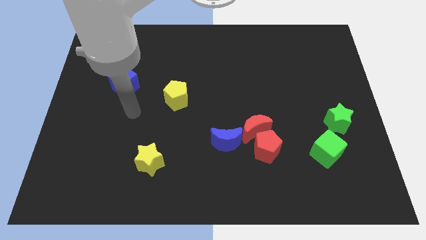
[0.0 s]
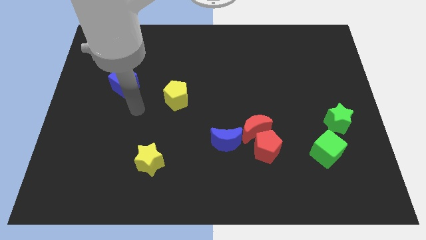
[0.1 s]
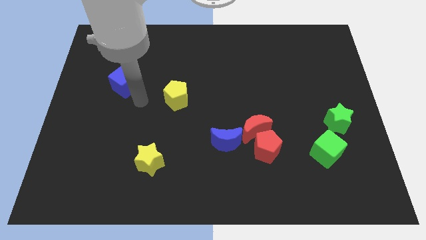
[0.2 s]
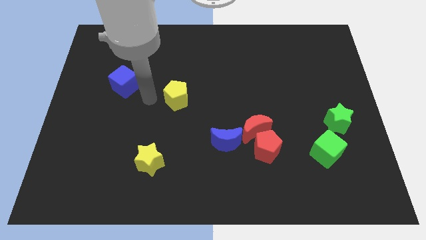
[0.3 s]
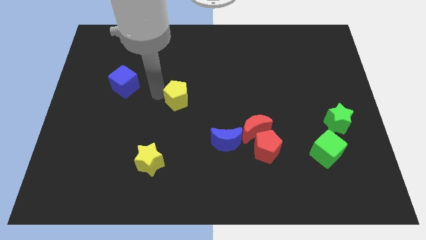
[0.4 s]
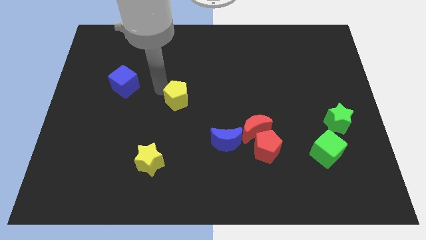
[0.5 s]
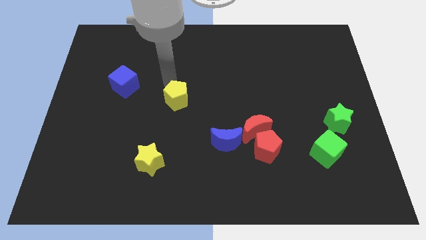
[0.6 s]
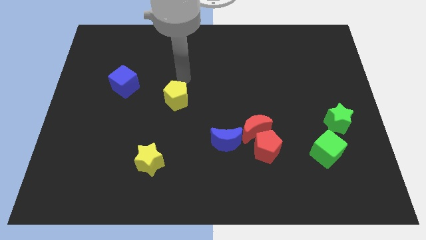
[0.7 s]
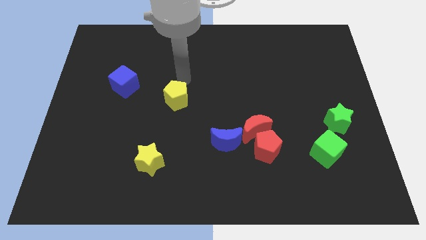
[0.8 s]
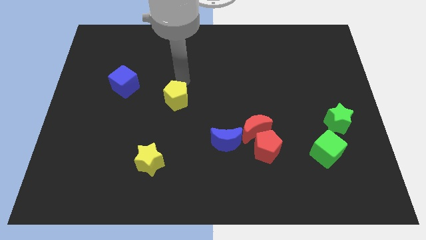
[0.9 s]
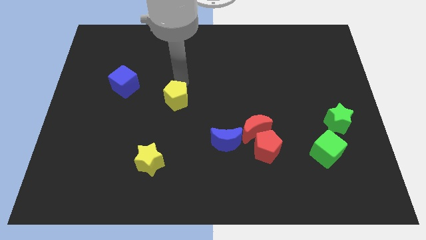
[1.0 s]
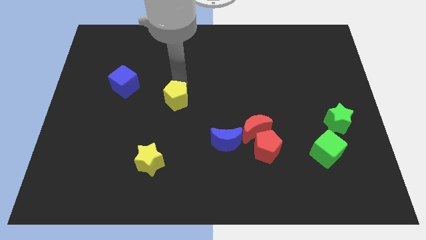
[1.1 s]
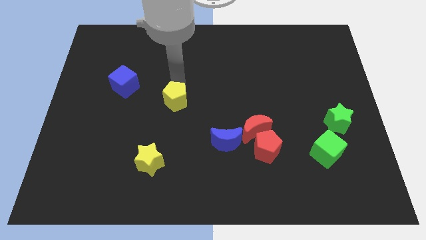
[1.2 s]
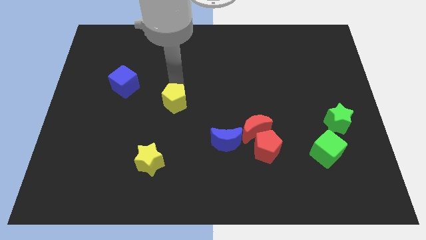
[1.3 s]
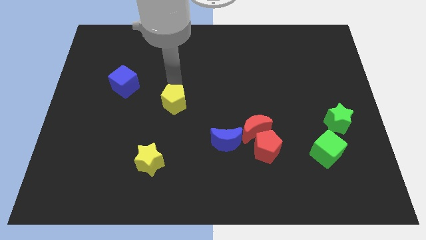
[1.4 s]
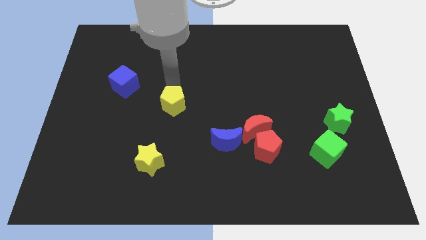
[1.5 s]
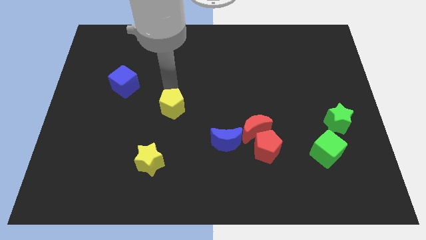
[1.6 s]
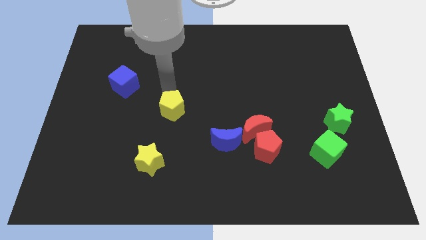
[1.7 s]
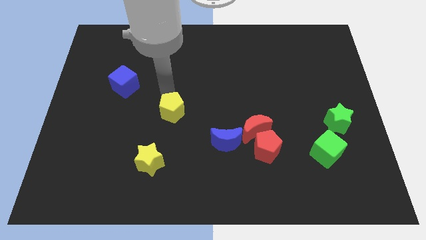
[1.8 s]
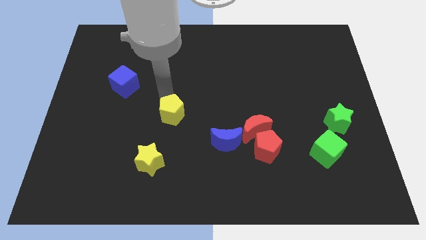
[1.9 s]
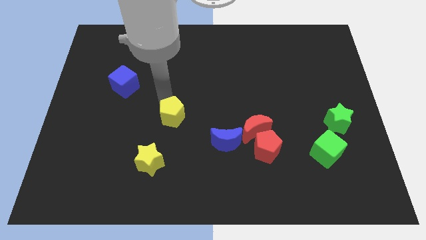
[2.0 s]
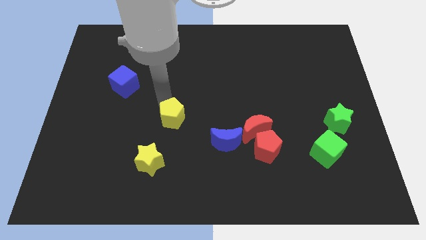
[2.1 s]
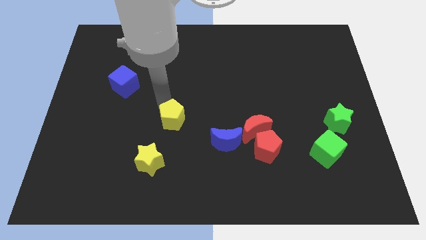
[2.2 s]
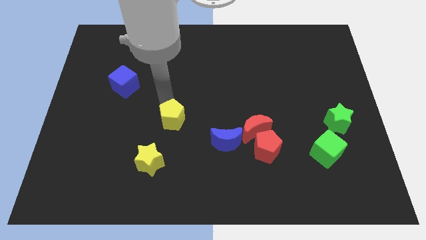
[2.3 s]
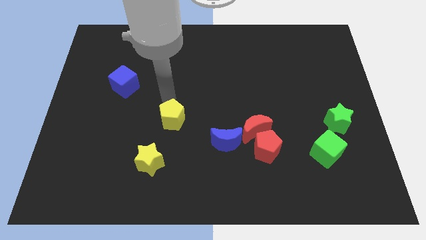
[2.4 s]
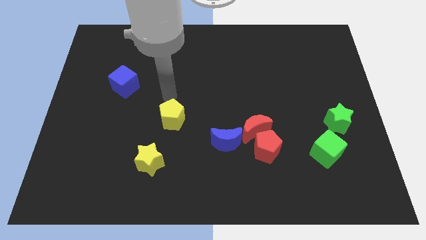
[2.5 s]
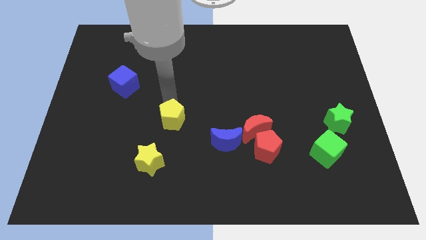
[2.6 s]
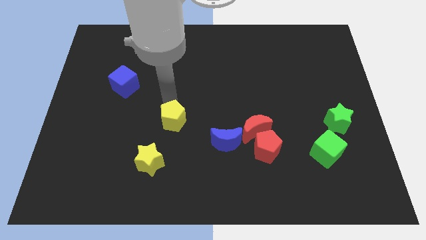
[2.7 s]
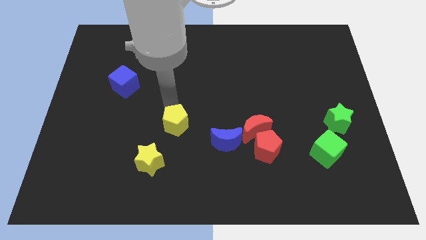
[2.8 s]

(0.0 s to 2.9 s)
move the yellow pentagon a bit downwards

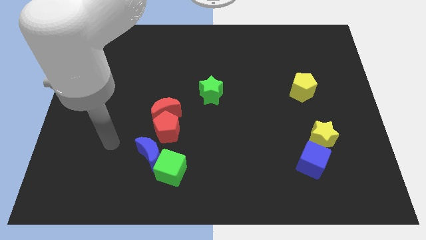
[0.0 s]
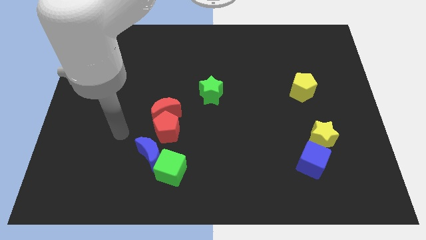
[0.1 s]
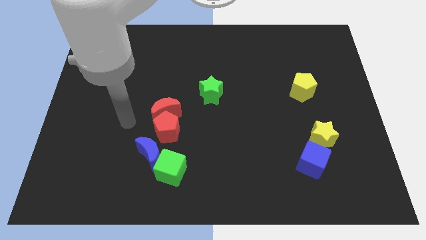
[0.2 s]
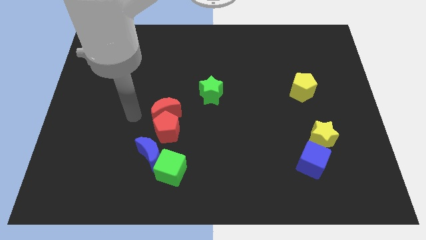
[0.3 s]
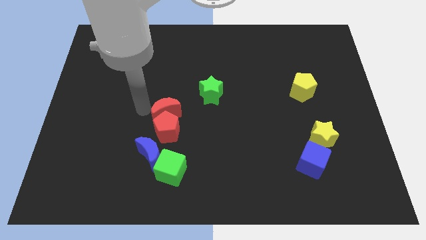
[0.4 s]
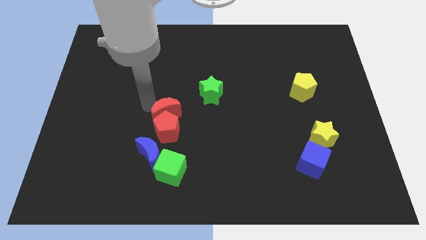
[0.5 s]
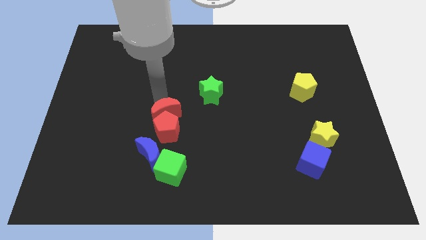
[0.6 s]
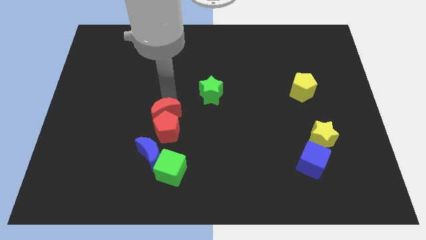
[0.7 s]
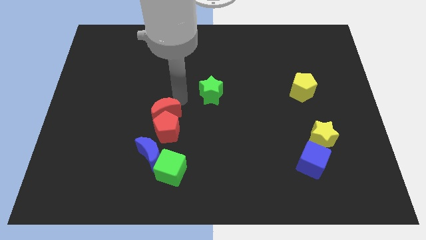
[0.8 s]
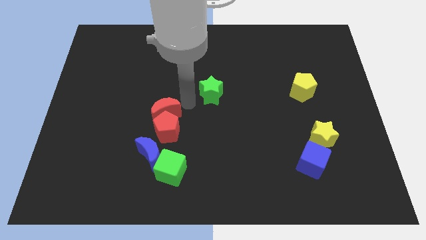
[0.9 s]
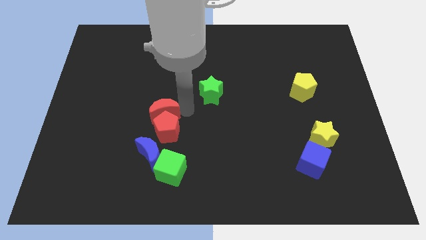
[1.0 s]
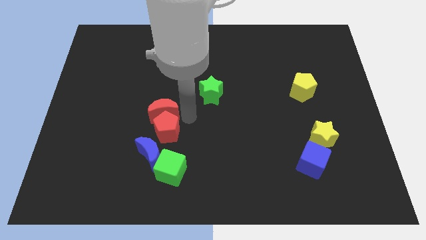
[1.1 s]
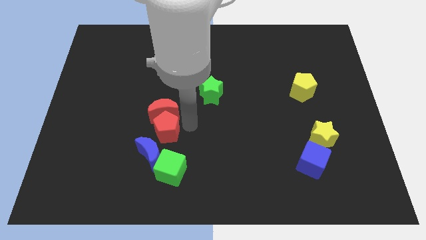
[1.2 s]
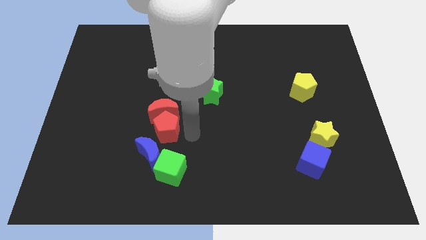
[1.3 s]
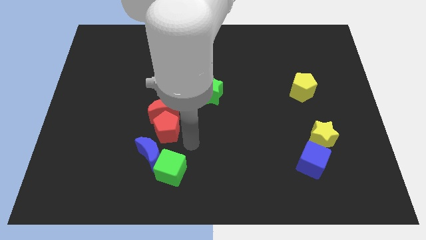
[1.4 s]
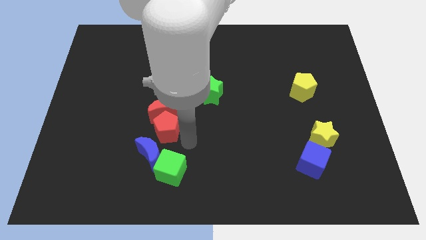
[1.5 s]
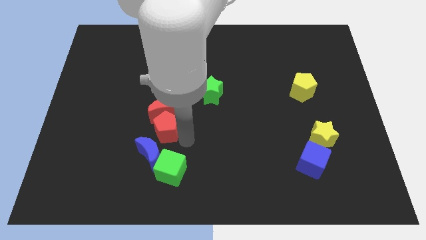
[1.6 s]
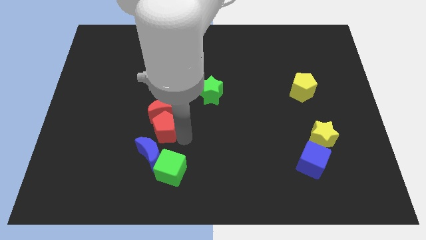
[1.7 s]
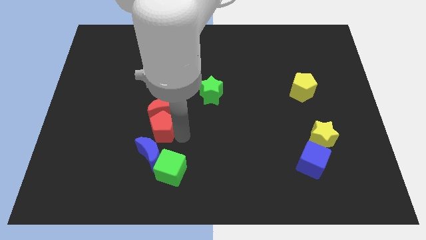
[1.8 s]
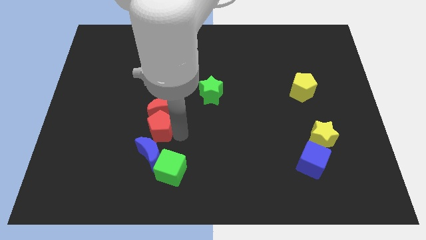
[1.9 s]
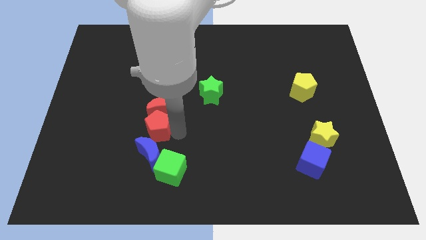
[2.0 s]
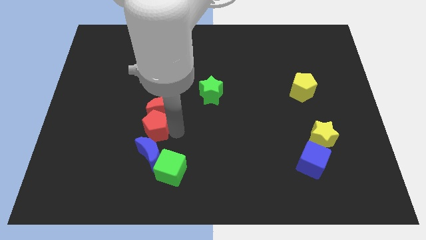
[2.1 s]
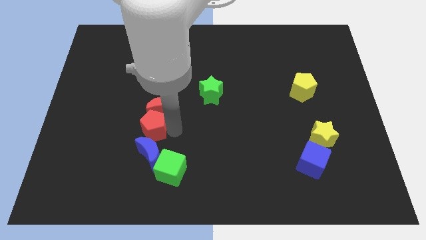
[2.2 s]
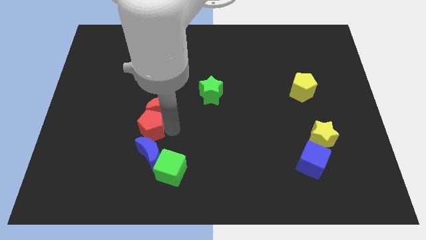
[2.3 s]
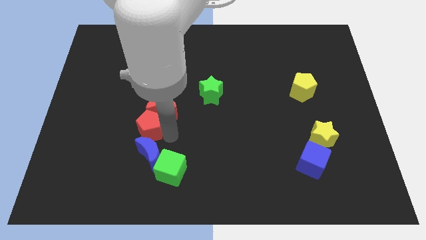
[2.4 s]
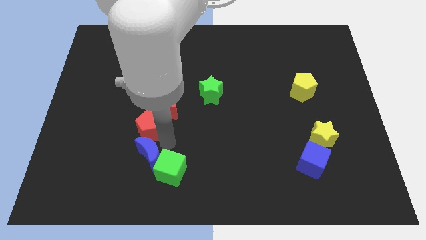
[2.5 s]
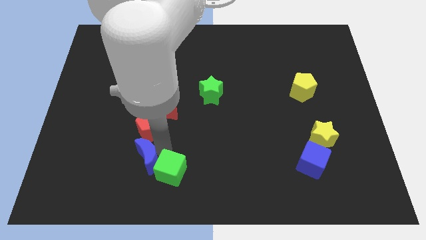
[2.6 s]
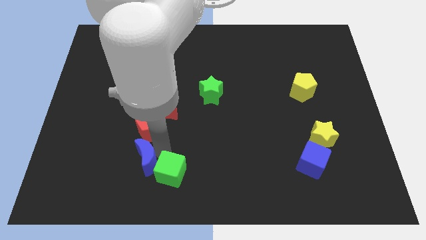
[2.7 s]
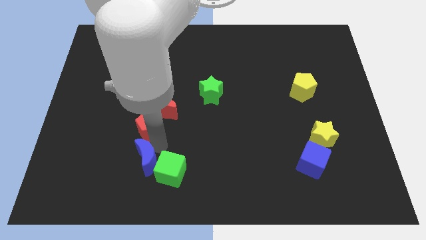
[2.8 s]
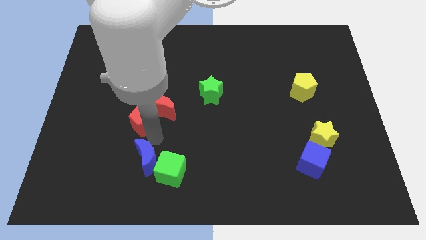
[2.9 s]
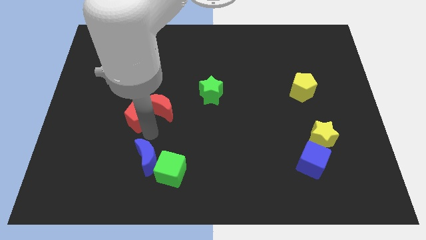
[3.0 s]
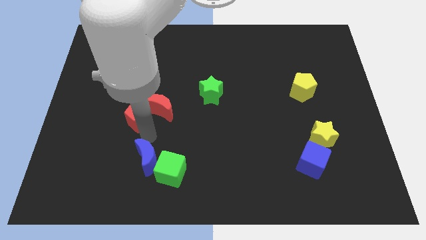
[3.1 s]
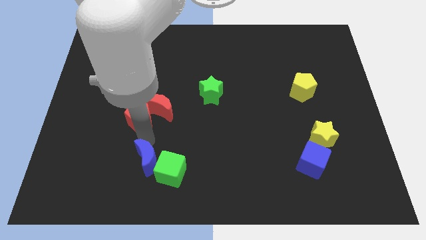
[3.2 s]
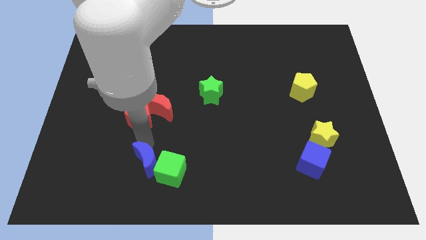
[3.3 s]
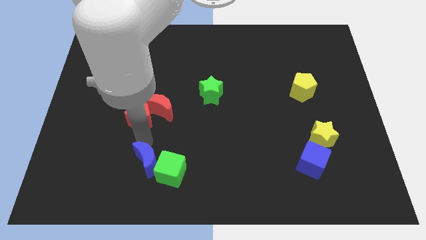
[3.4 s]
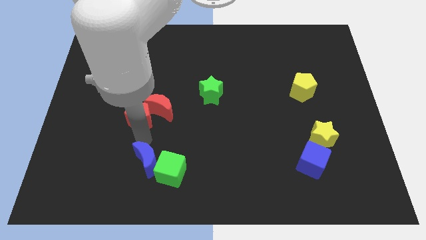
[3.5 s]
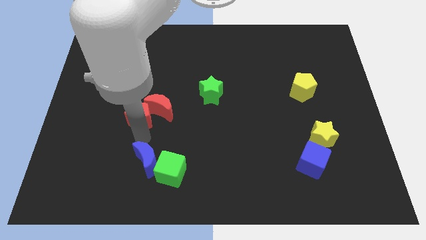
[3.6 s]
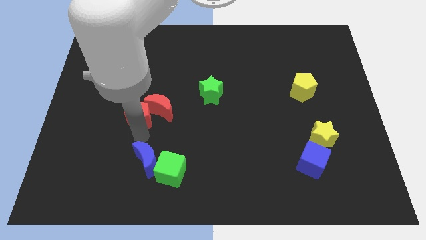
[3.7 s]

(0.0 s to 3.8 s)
slightly slide the red pentagon upwards and left diagonally

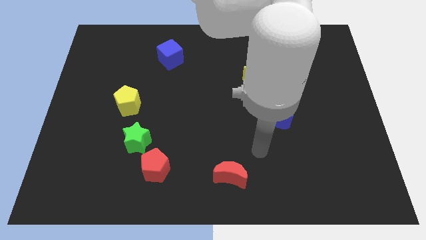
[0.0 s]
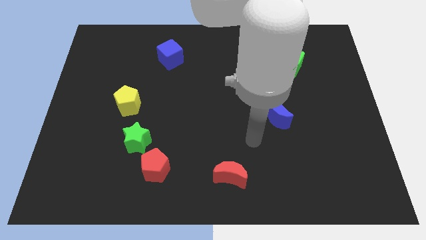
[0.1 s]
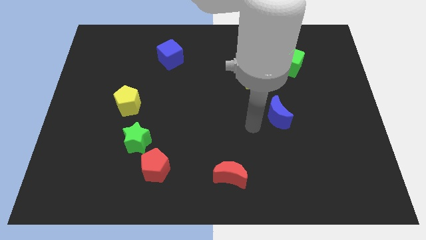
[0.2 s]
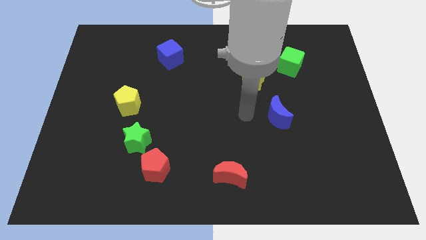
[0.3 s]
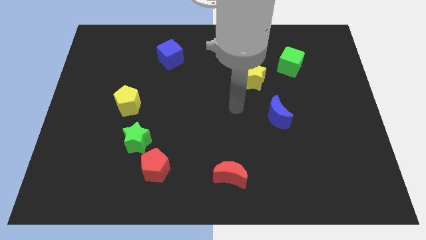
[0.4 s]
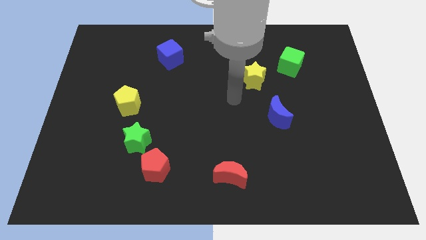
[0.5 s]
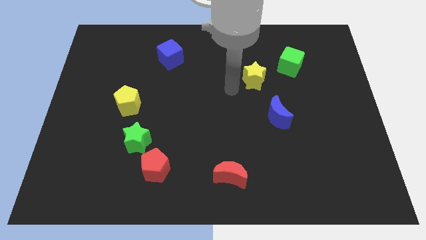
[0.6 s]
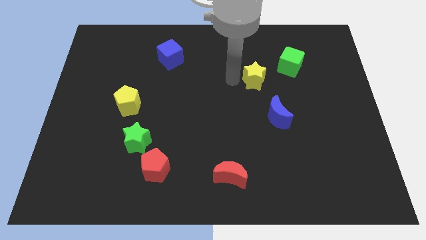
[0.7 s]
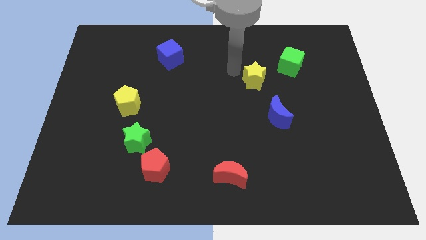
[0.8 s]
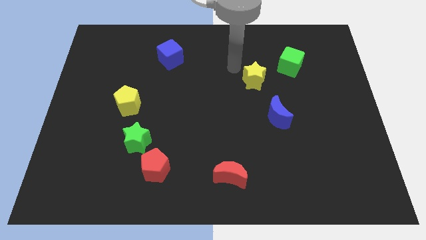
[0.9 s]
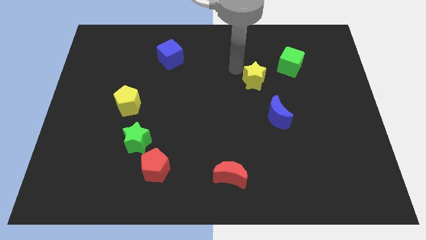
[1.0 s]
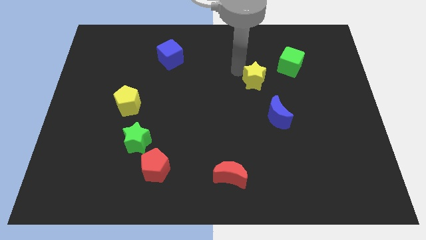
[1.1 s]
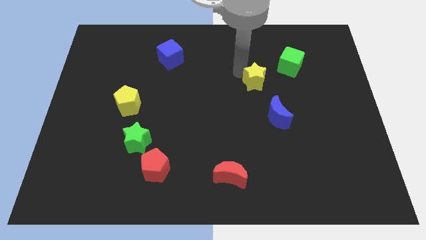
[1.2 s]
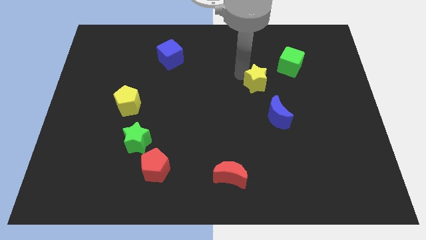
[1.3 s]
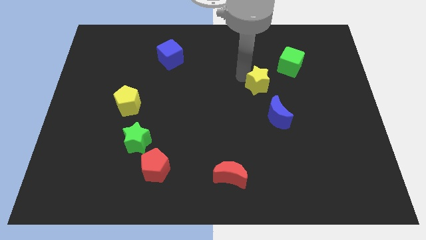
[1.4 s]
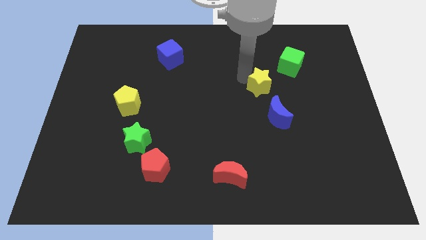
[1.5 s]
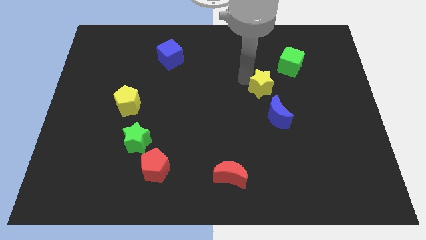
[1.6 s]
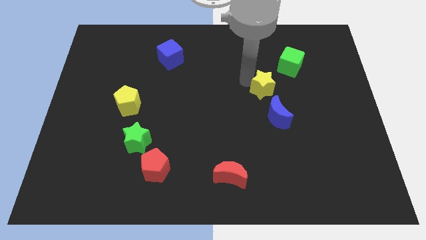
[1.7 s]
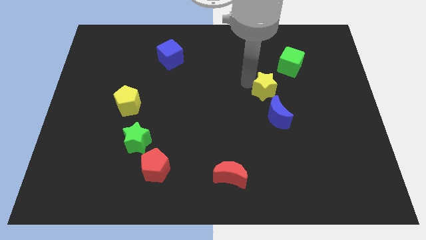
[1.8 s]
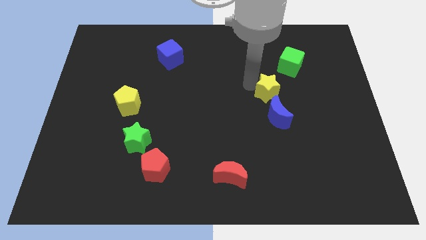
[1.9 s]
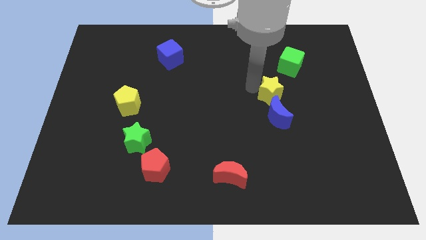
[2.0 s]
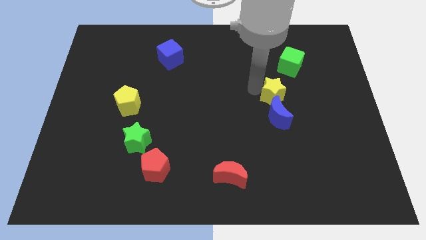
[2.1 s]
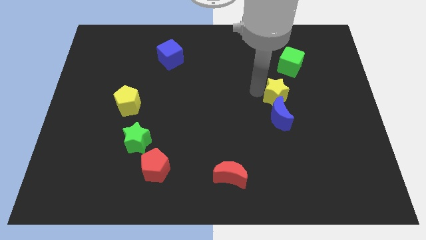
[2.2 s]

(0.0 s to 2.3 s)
slide the yellow star downwards and right diagonally a little bit
